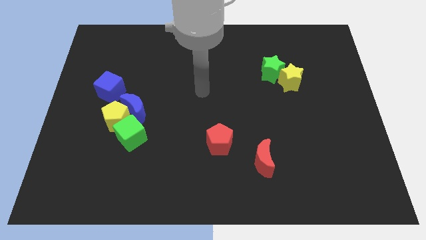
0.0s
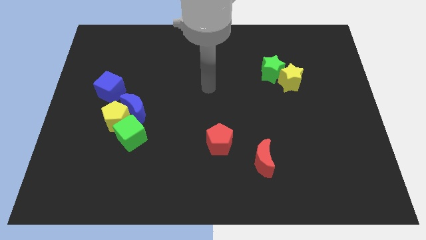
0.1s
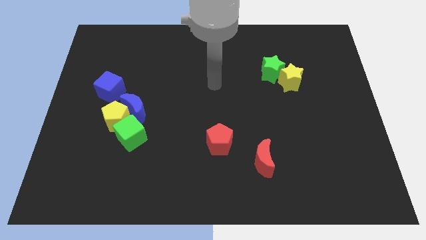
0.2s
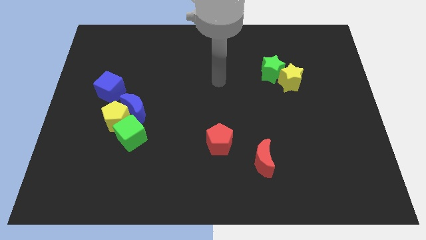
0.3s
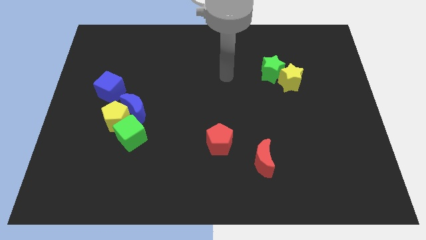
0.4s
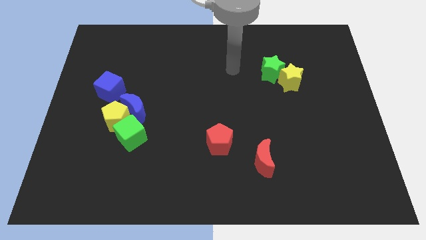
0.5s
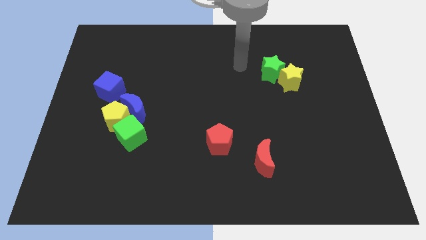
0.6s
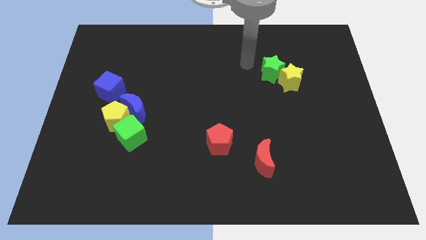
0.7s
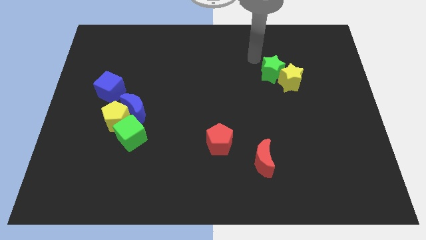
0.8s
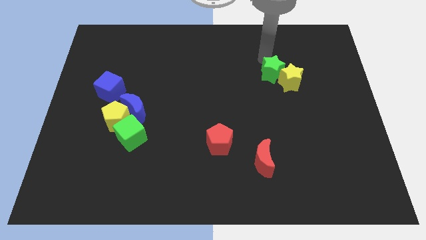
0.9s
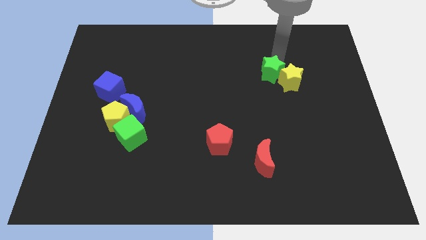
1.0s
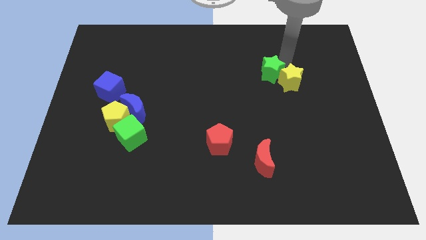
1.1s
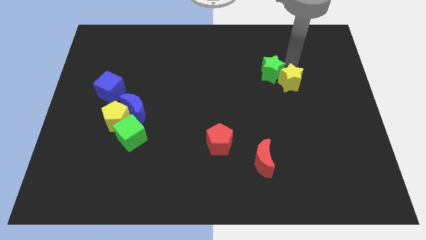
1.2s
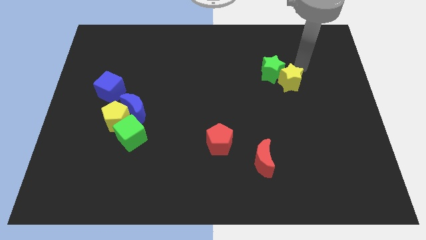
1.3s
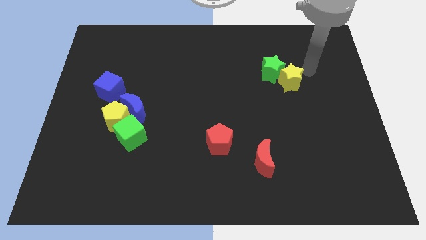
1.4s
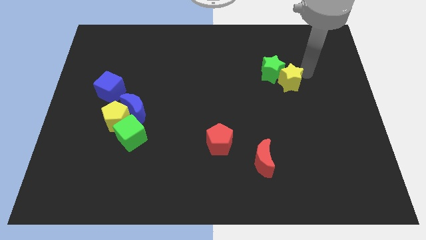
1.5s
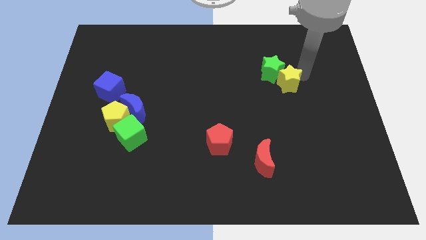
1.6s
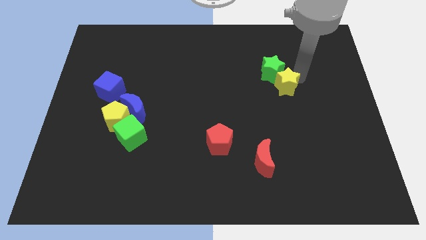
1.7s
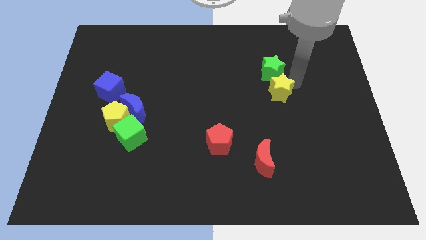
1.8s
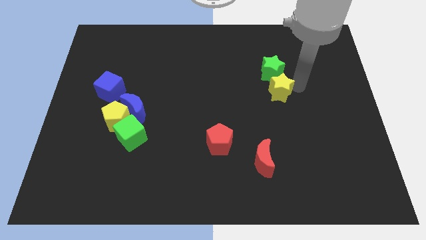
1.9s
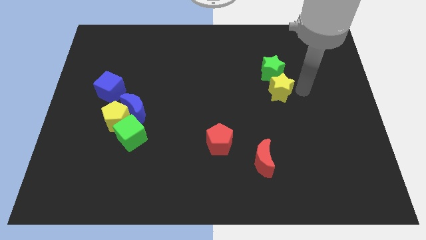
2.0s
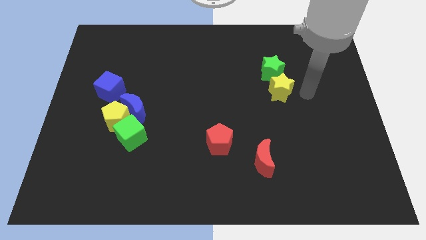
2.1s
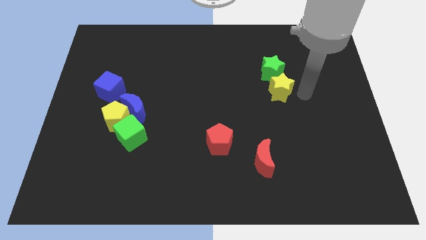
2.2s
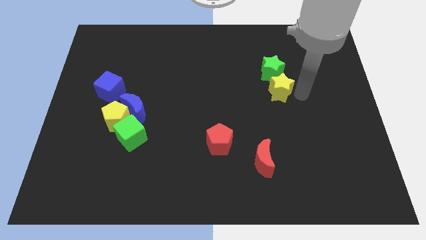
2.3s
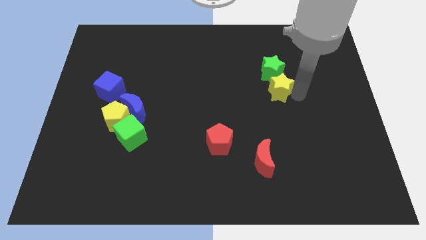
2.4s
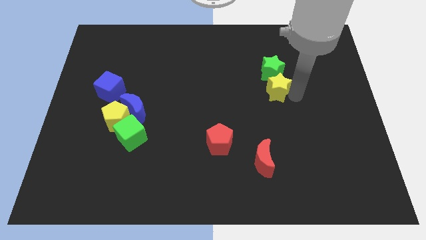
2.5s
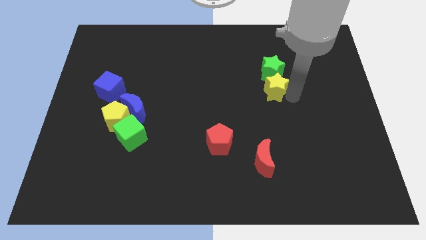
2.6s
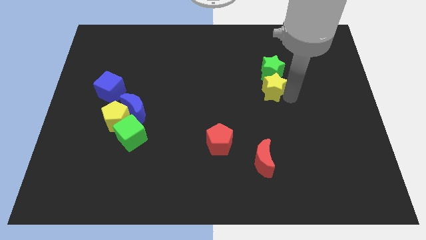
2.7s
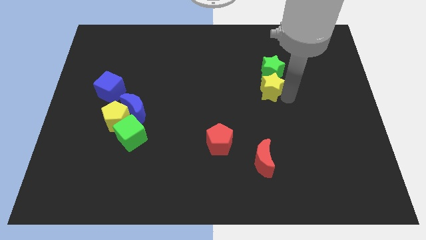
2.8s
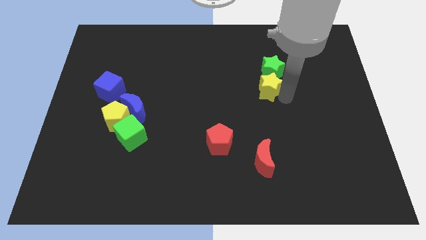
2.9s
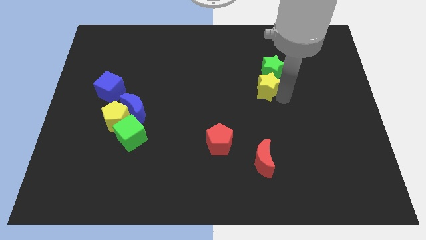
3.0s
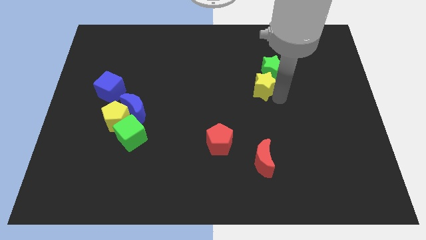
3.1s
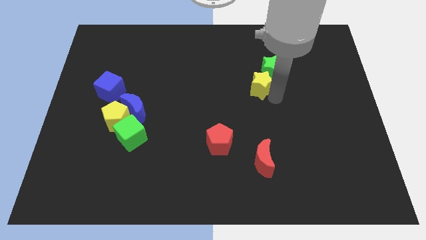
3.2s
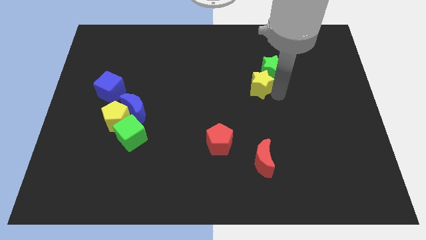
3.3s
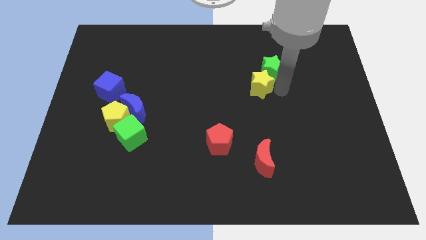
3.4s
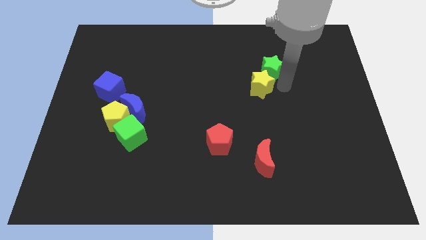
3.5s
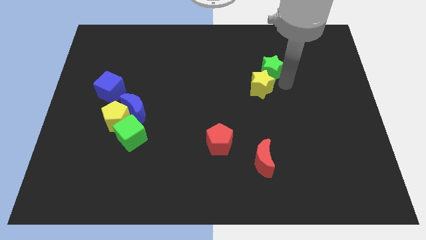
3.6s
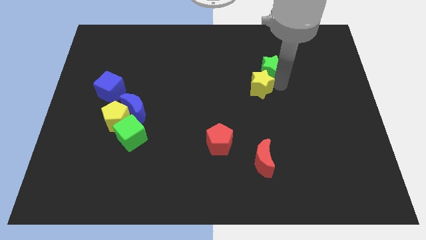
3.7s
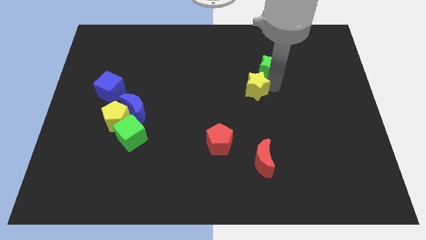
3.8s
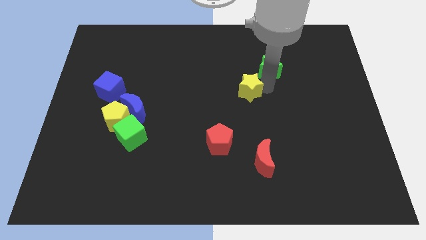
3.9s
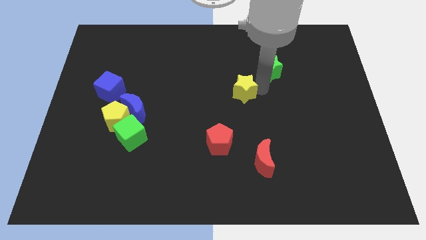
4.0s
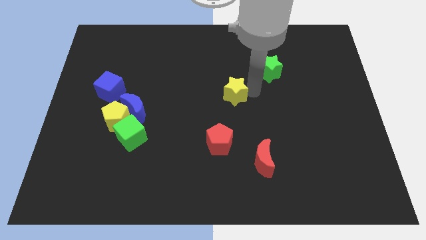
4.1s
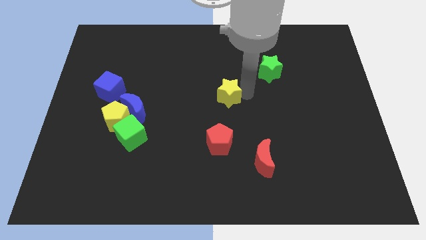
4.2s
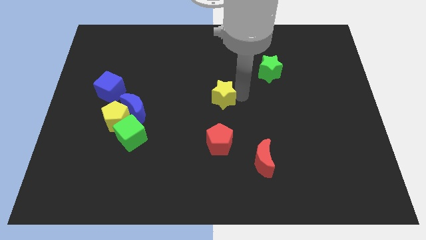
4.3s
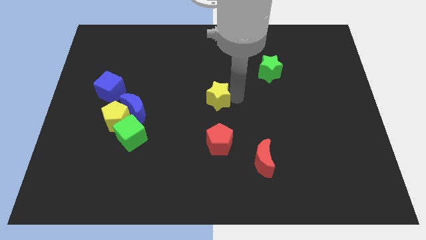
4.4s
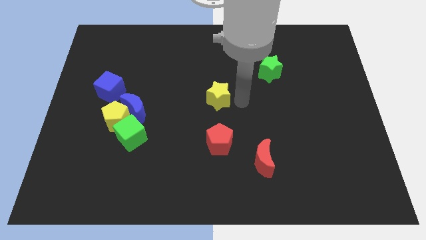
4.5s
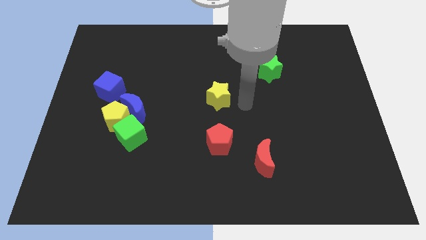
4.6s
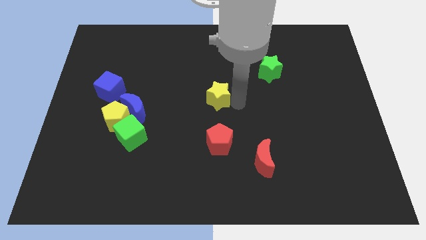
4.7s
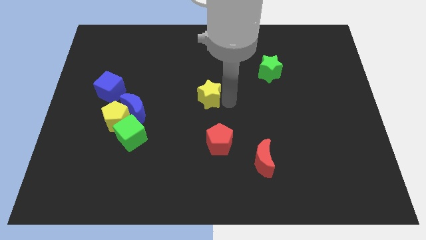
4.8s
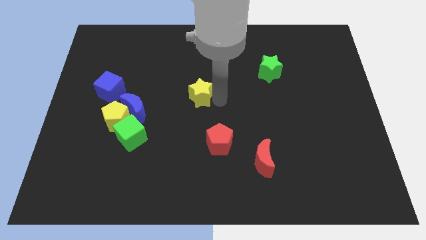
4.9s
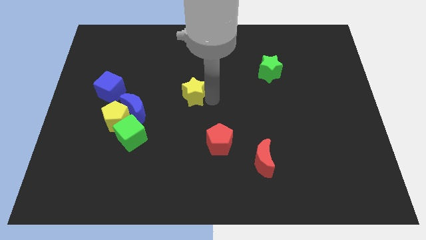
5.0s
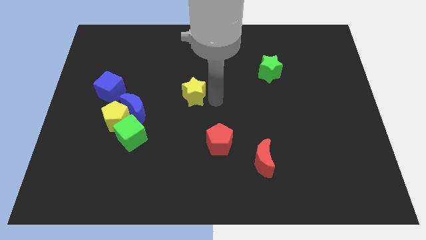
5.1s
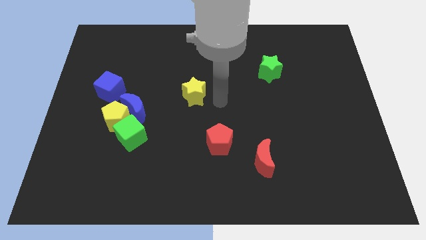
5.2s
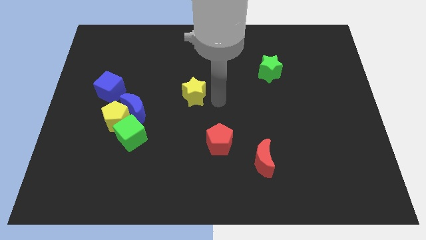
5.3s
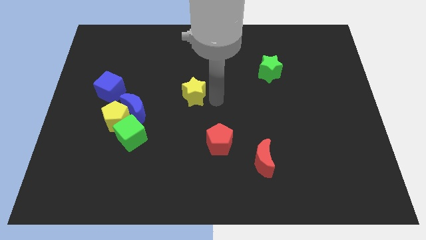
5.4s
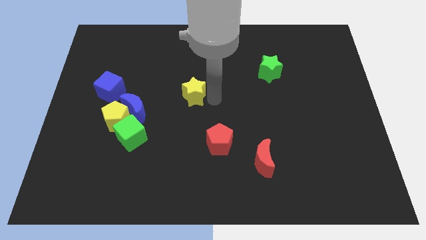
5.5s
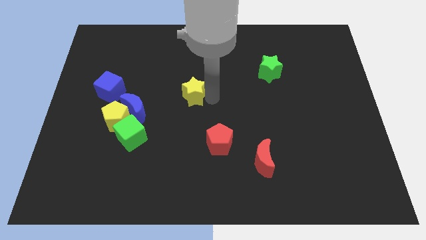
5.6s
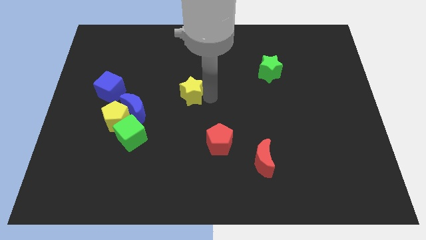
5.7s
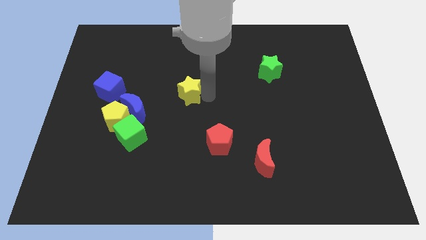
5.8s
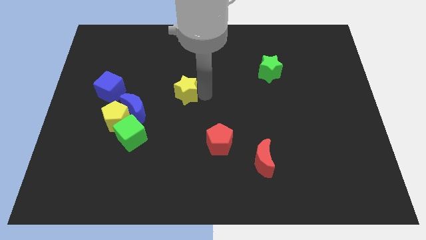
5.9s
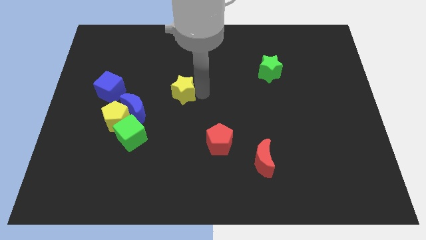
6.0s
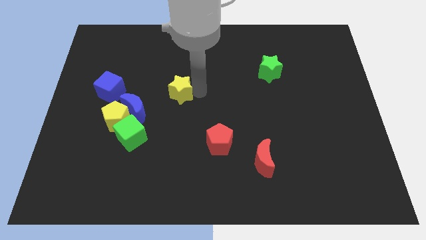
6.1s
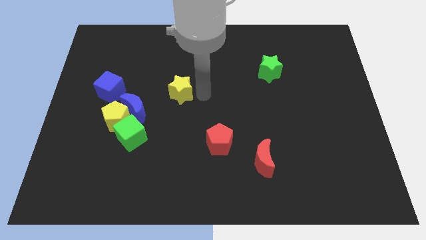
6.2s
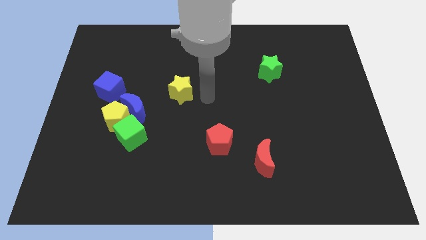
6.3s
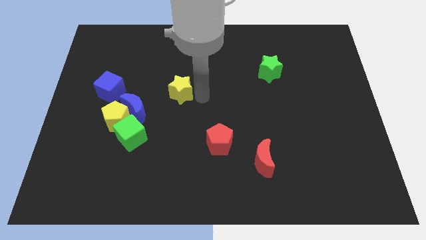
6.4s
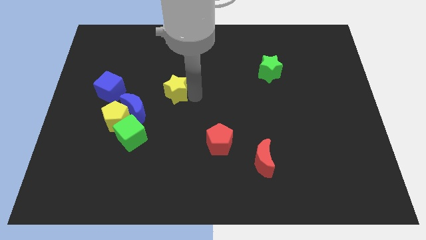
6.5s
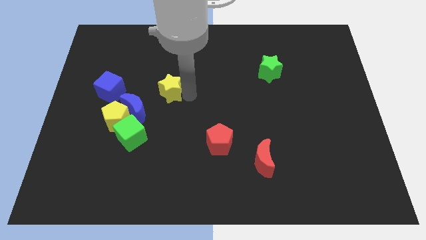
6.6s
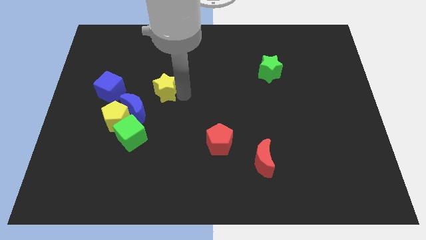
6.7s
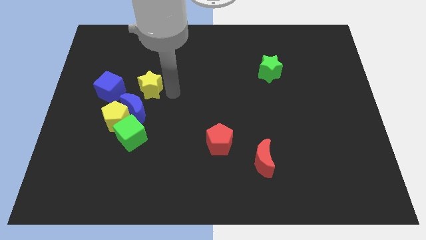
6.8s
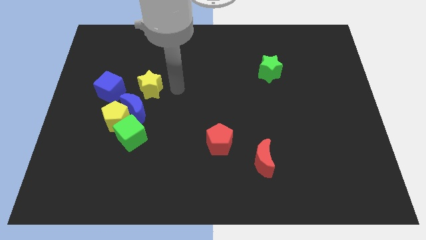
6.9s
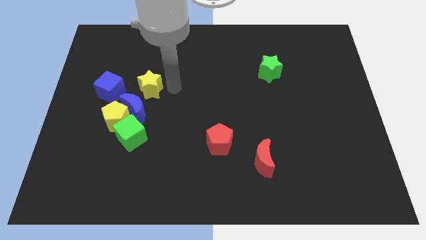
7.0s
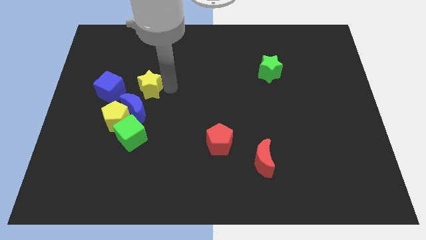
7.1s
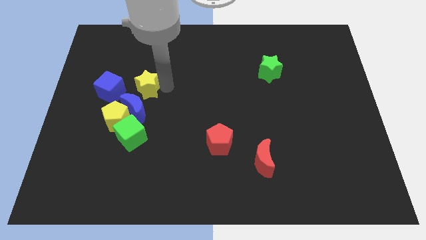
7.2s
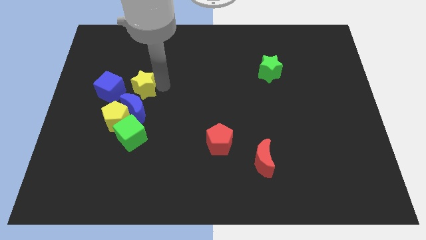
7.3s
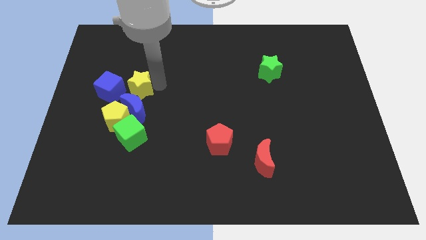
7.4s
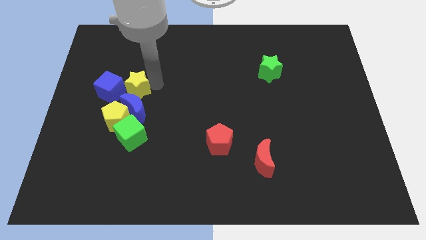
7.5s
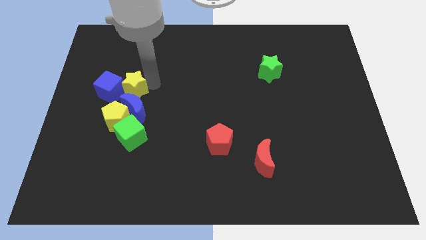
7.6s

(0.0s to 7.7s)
push the yellow star next to the blue cube
